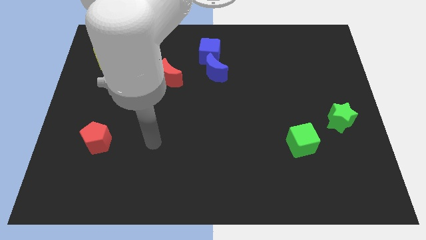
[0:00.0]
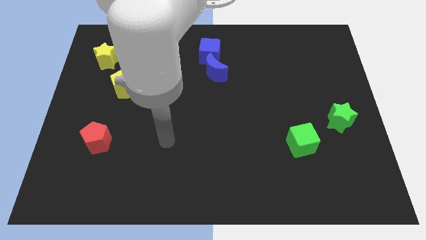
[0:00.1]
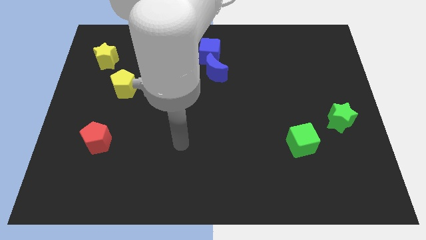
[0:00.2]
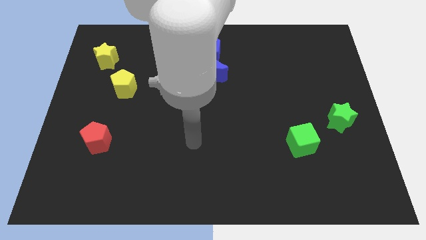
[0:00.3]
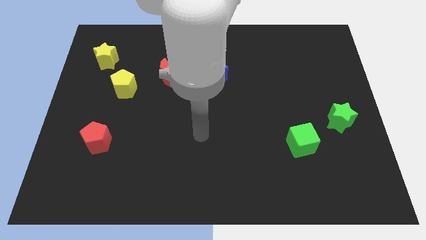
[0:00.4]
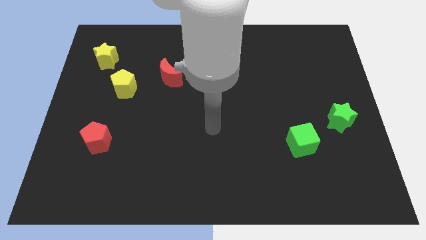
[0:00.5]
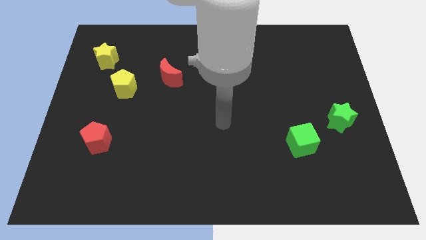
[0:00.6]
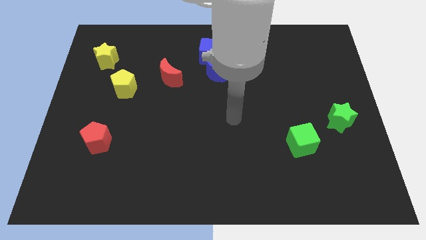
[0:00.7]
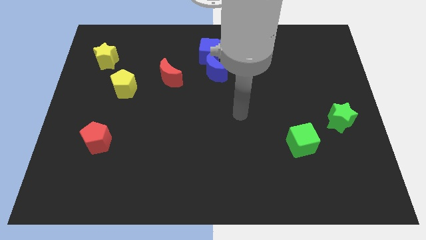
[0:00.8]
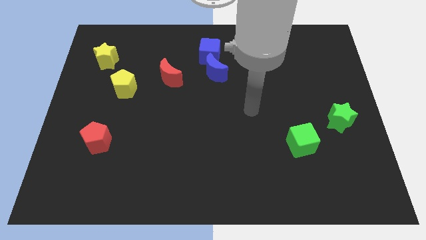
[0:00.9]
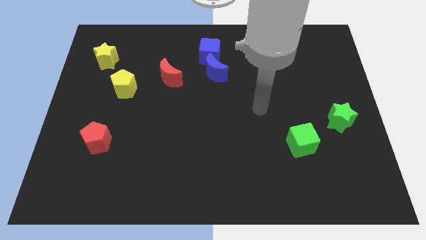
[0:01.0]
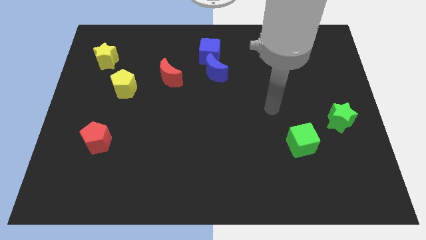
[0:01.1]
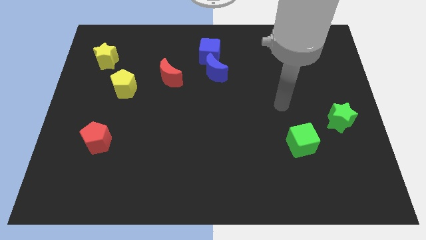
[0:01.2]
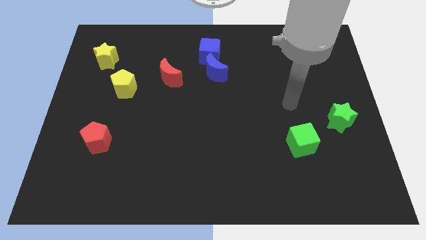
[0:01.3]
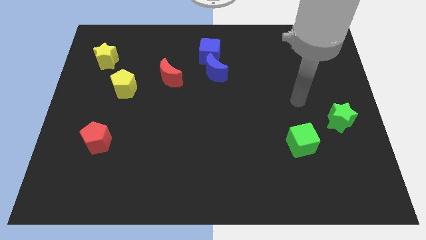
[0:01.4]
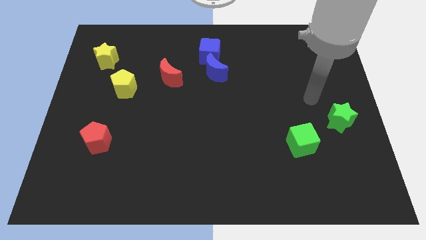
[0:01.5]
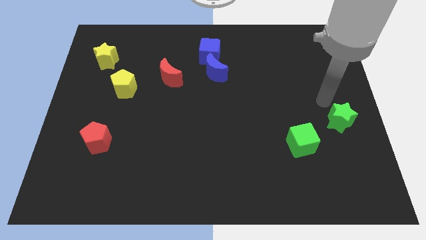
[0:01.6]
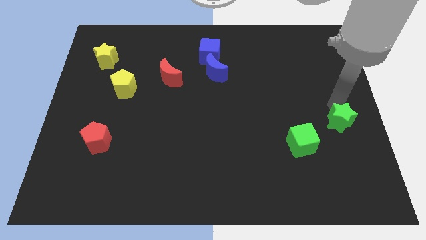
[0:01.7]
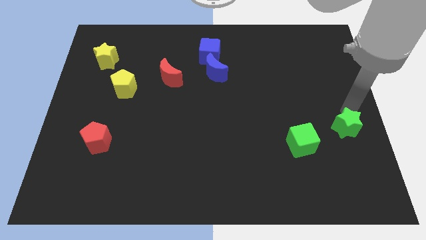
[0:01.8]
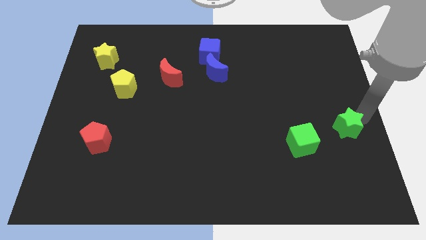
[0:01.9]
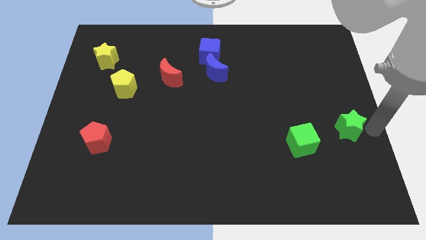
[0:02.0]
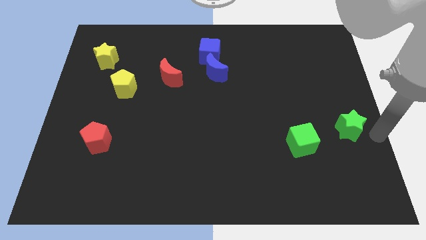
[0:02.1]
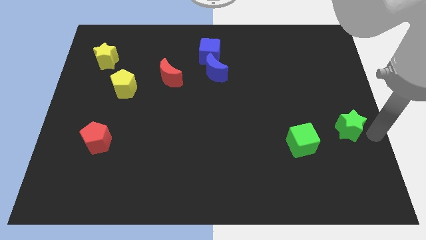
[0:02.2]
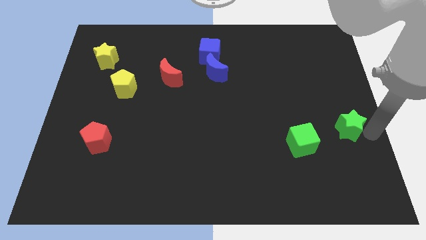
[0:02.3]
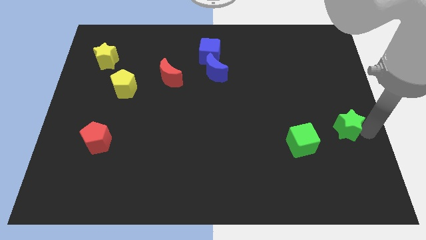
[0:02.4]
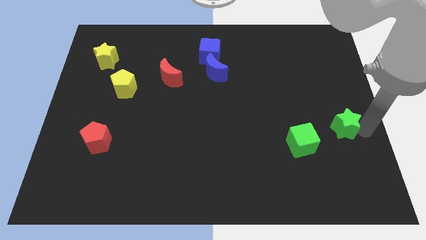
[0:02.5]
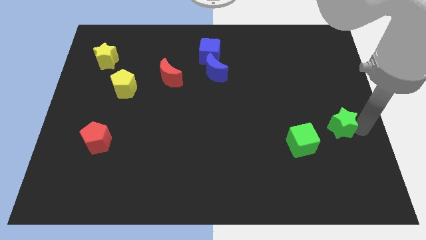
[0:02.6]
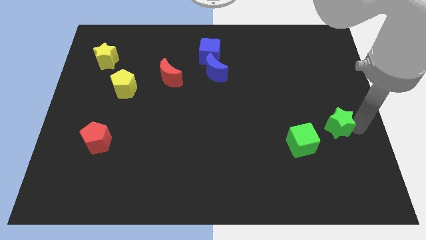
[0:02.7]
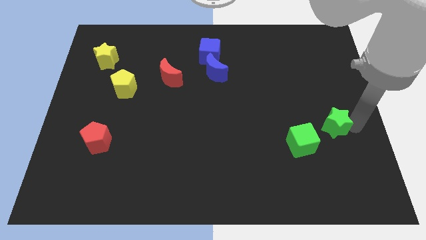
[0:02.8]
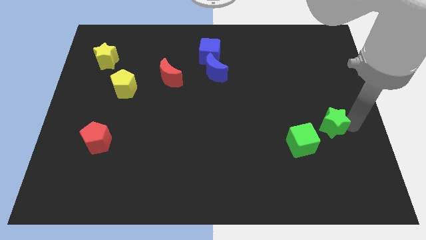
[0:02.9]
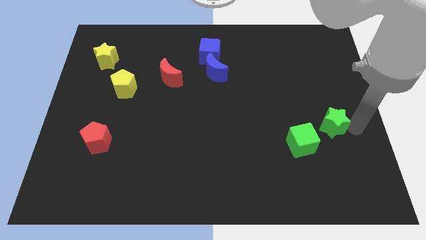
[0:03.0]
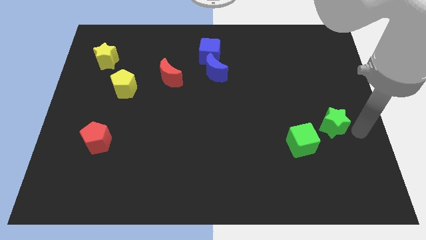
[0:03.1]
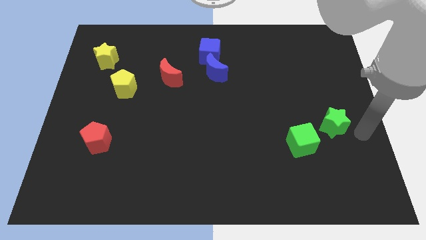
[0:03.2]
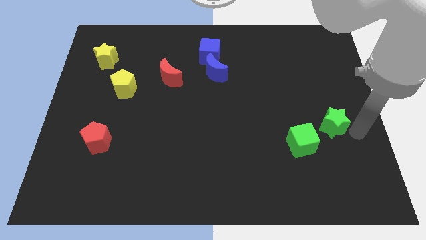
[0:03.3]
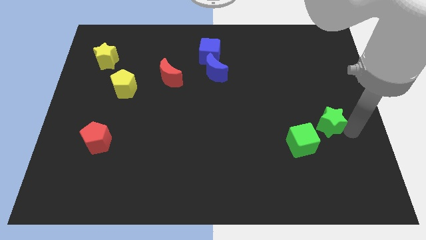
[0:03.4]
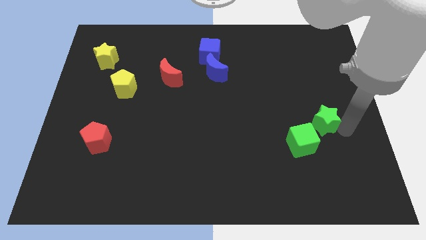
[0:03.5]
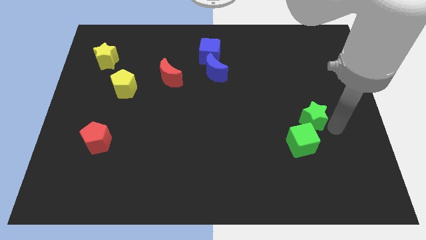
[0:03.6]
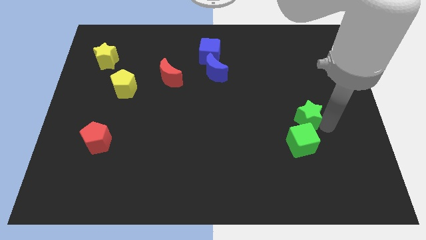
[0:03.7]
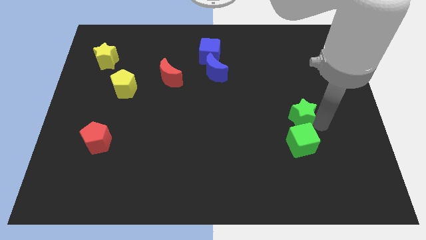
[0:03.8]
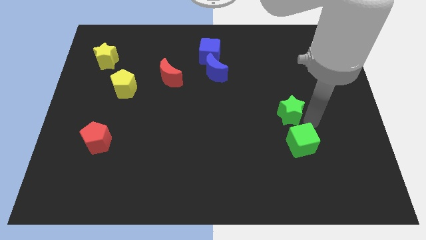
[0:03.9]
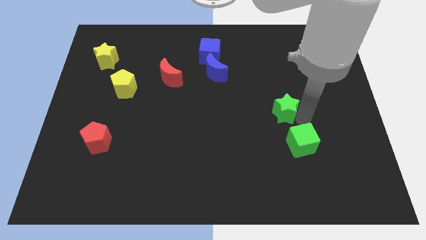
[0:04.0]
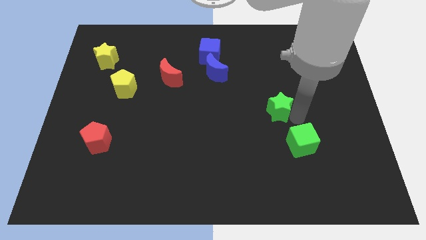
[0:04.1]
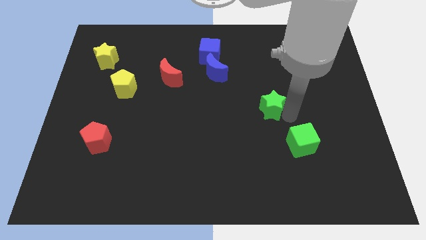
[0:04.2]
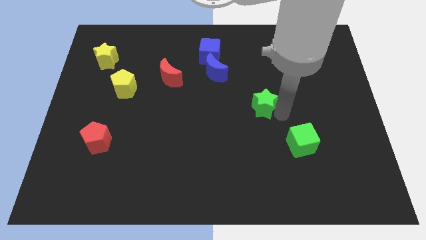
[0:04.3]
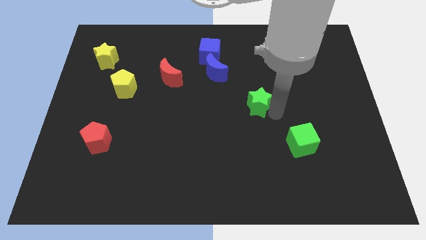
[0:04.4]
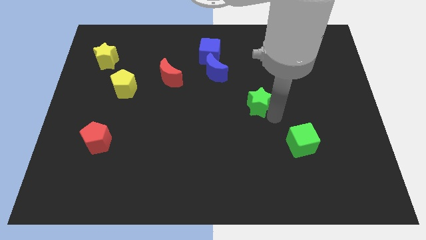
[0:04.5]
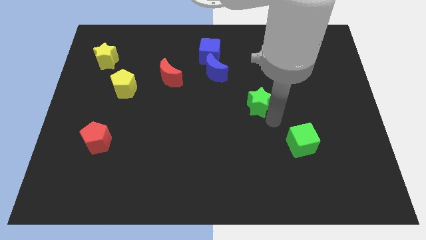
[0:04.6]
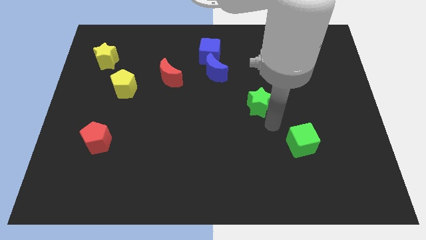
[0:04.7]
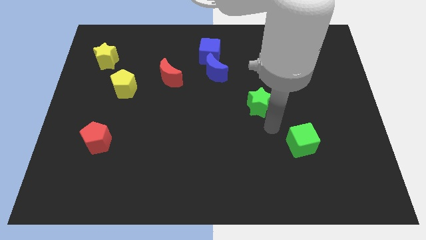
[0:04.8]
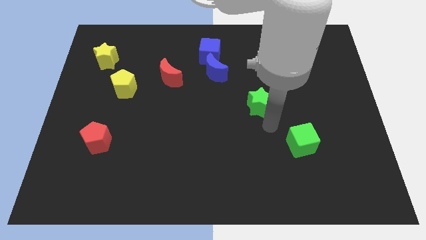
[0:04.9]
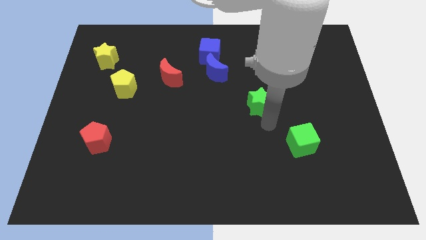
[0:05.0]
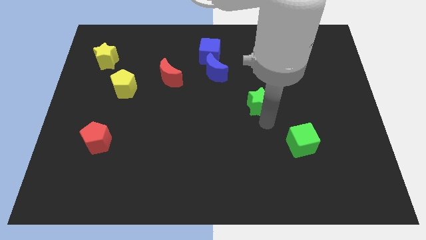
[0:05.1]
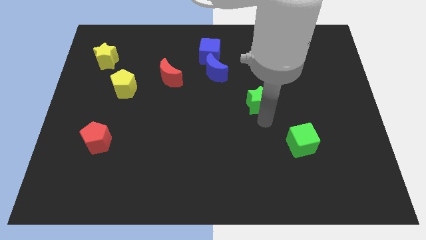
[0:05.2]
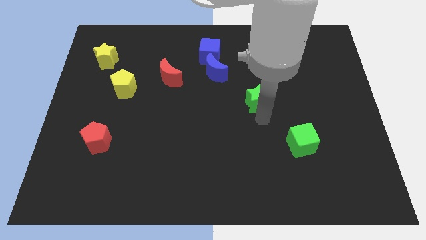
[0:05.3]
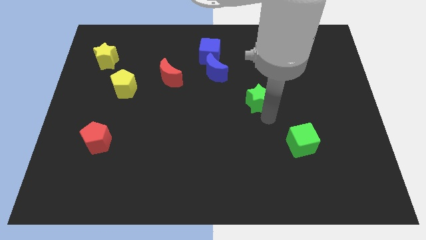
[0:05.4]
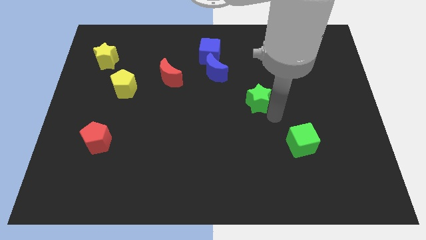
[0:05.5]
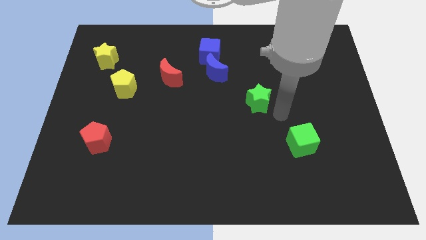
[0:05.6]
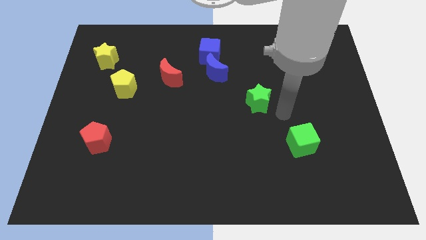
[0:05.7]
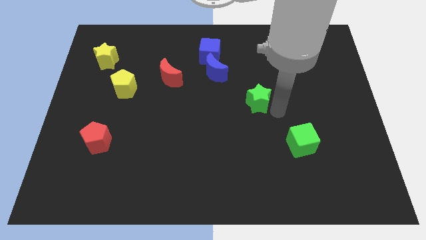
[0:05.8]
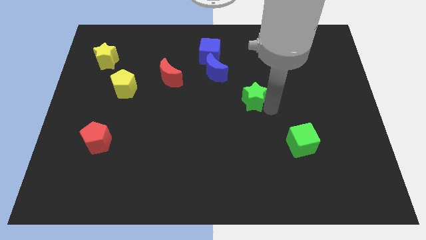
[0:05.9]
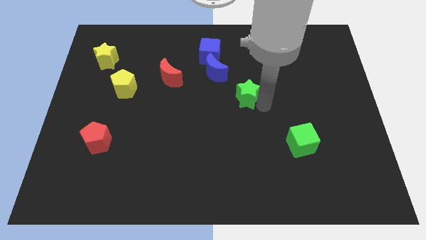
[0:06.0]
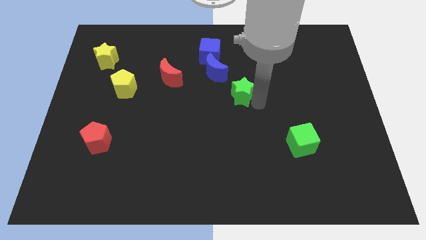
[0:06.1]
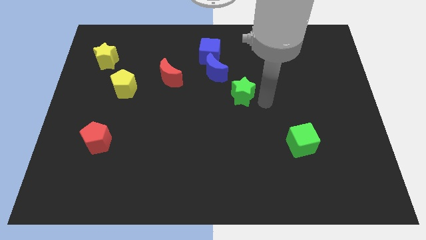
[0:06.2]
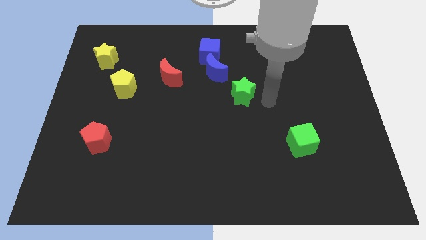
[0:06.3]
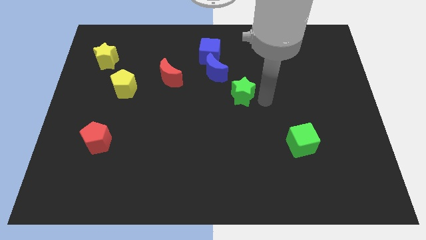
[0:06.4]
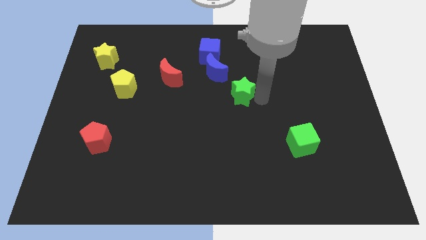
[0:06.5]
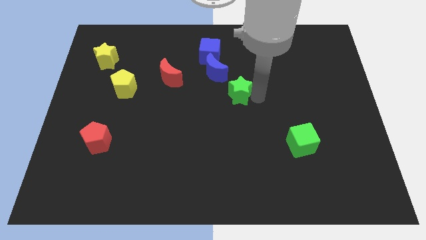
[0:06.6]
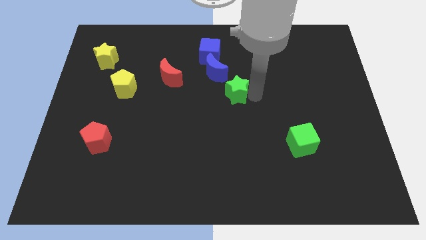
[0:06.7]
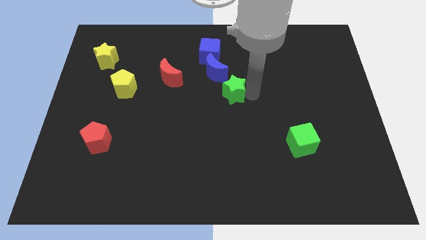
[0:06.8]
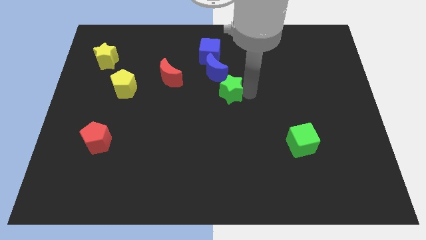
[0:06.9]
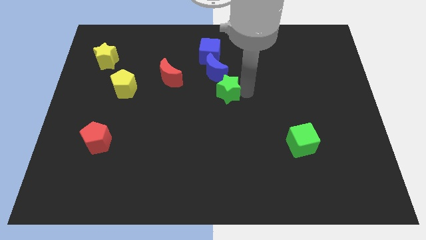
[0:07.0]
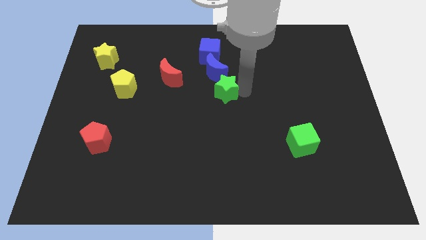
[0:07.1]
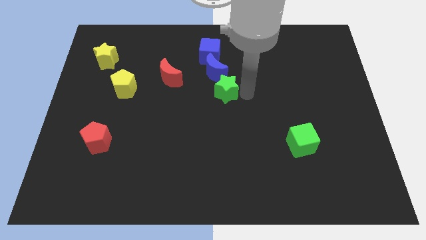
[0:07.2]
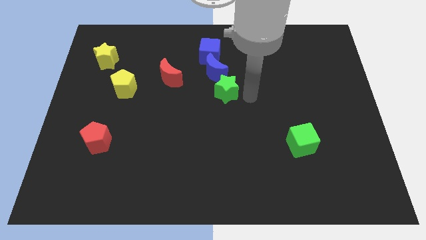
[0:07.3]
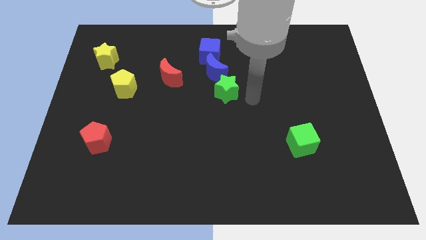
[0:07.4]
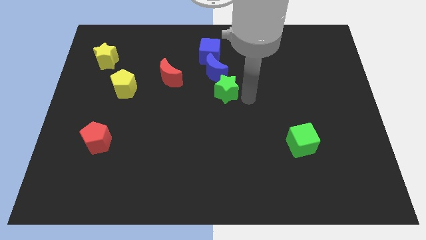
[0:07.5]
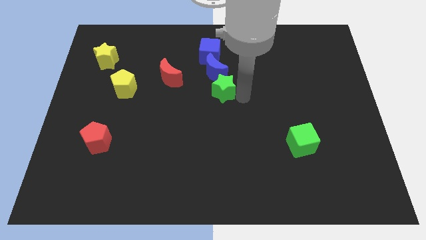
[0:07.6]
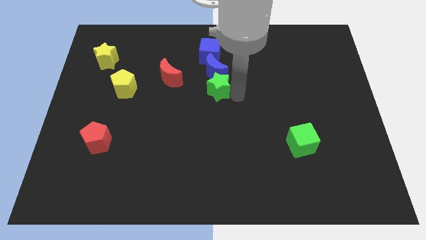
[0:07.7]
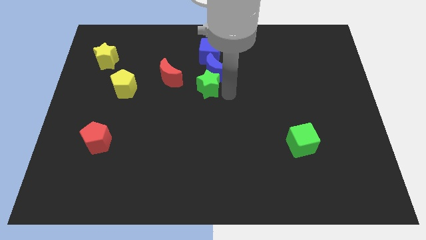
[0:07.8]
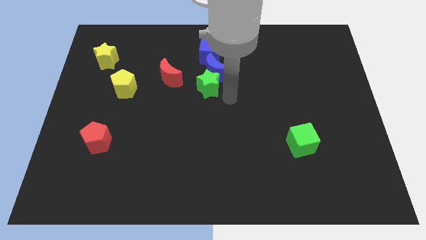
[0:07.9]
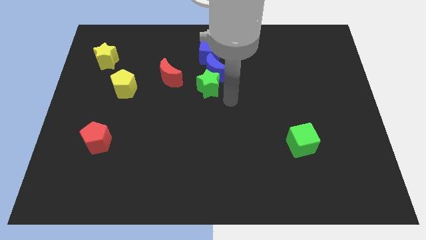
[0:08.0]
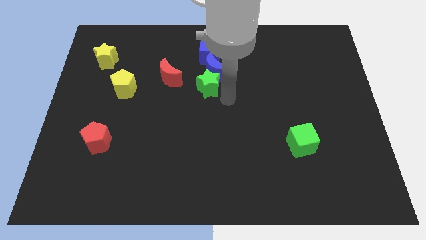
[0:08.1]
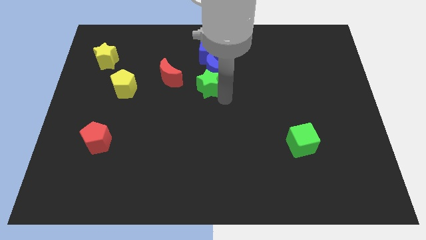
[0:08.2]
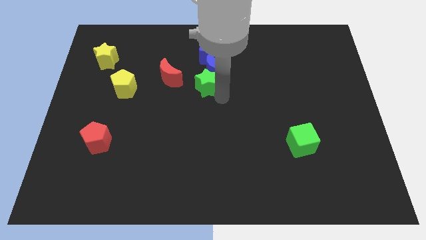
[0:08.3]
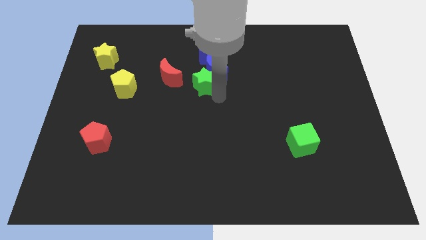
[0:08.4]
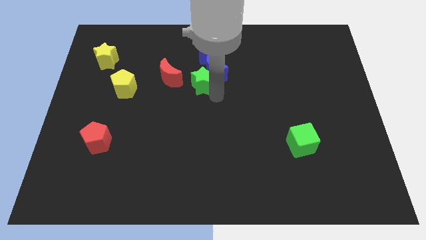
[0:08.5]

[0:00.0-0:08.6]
move the green star to the left of the blue moon
